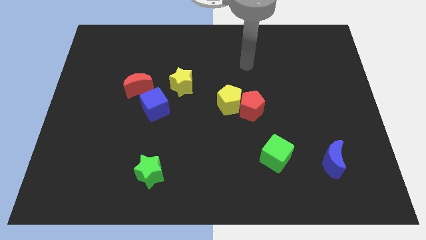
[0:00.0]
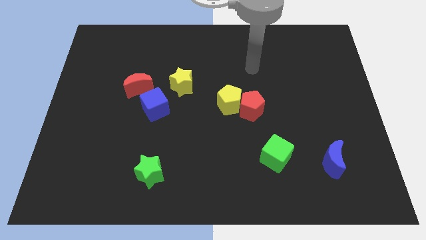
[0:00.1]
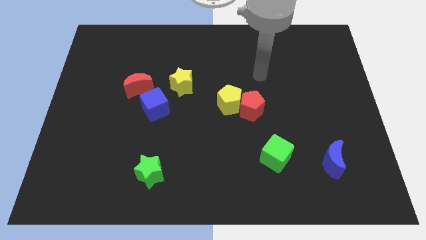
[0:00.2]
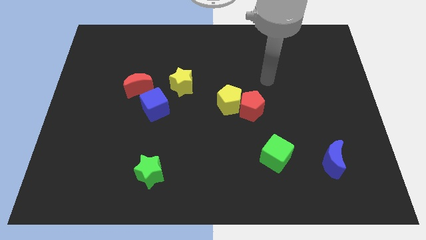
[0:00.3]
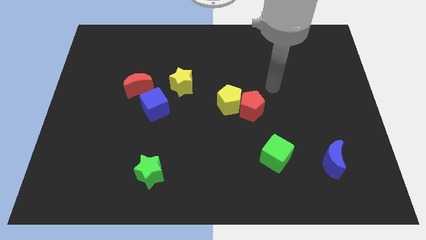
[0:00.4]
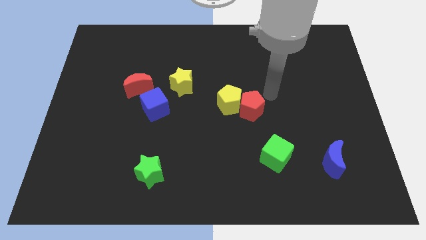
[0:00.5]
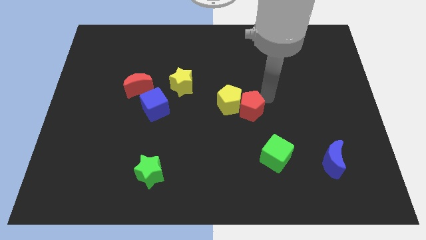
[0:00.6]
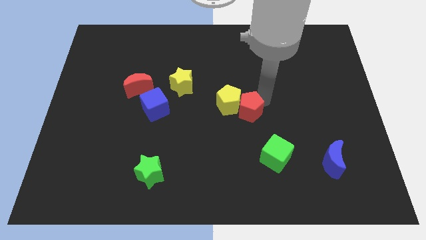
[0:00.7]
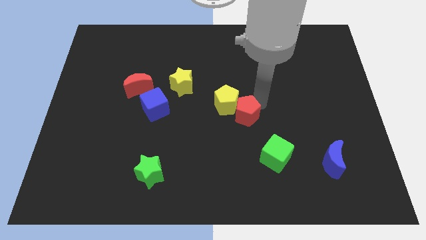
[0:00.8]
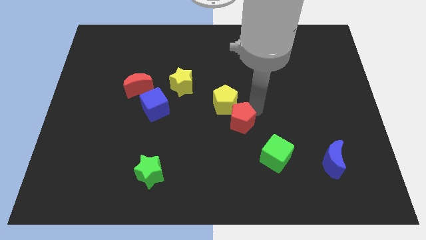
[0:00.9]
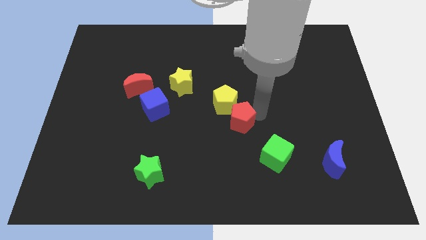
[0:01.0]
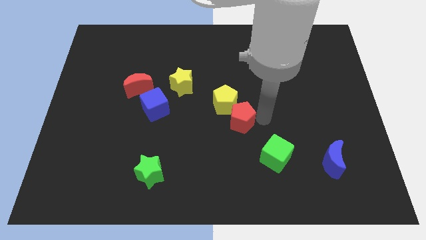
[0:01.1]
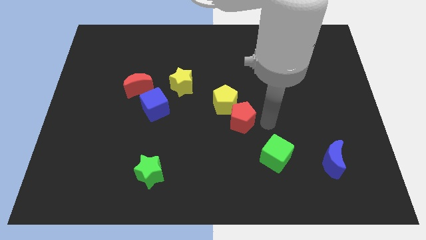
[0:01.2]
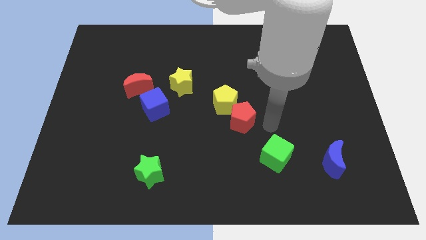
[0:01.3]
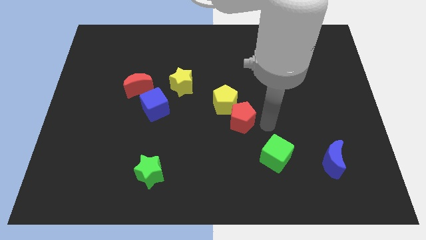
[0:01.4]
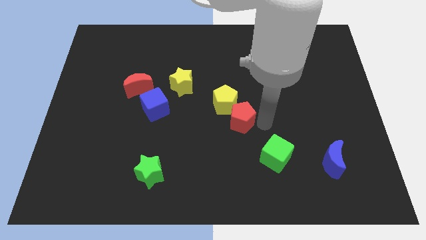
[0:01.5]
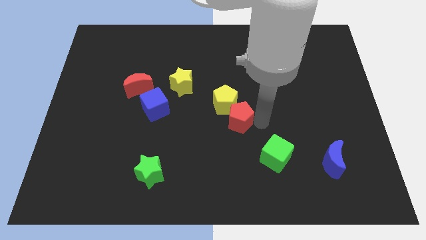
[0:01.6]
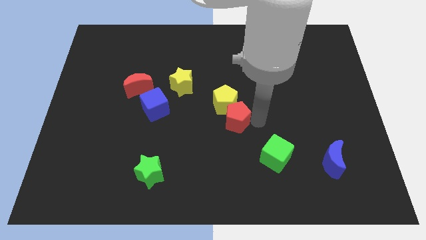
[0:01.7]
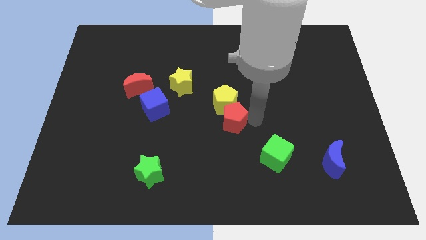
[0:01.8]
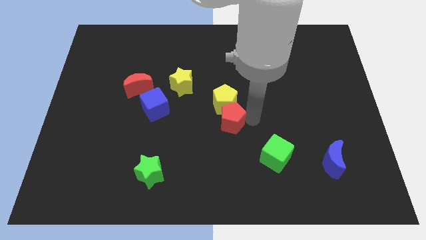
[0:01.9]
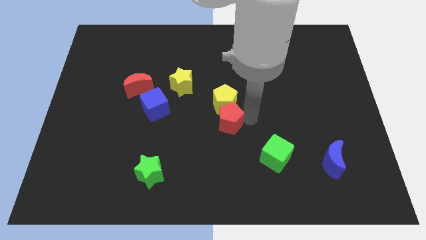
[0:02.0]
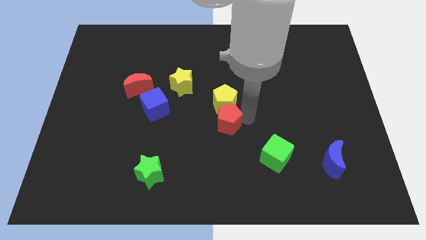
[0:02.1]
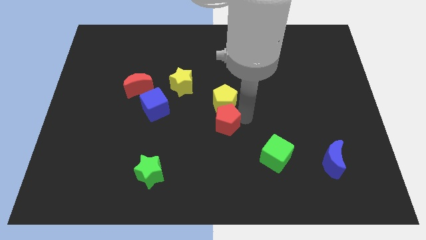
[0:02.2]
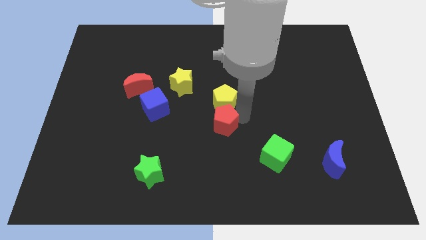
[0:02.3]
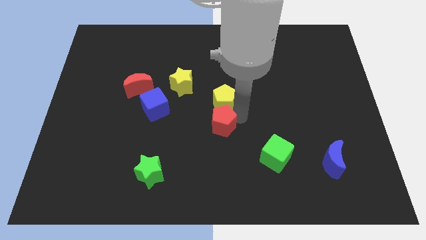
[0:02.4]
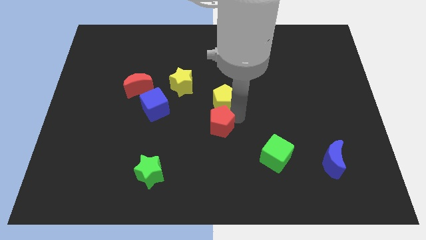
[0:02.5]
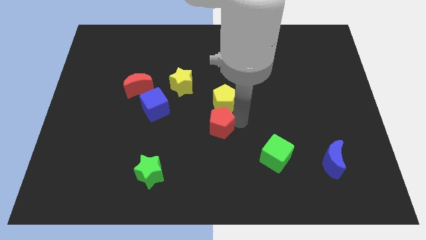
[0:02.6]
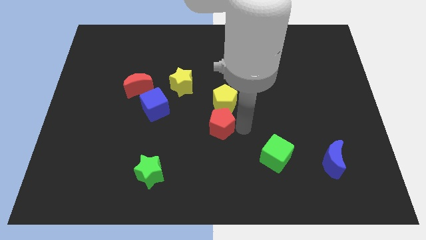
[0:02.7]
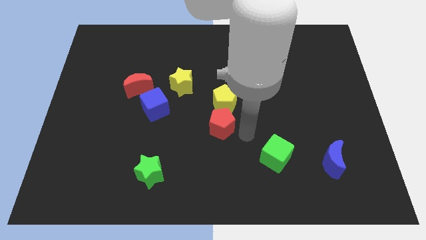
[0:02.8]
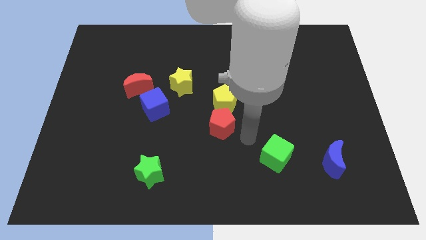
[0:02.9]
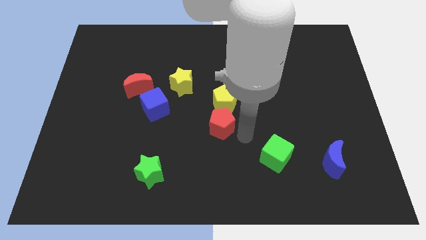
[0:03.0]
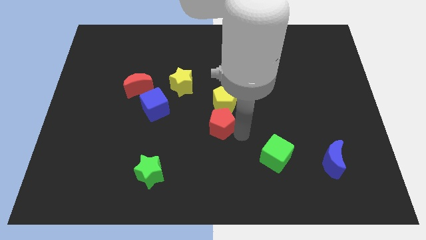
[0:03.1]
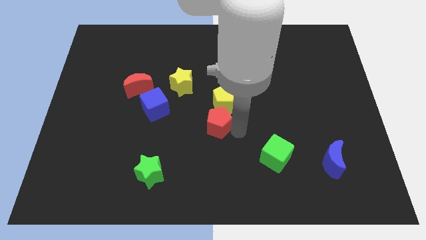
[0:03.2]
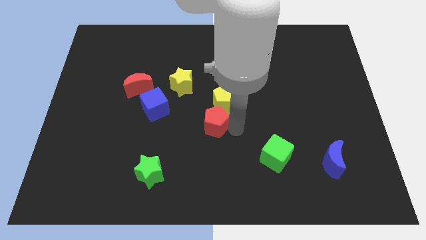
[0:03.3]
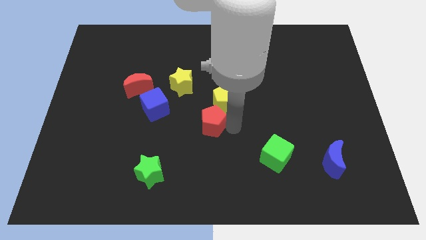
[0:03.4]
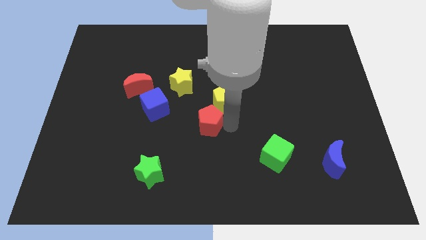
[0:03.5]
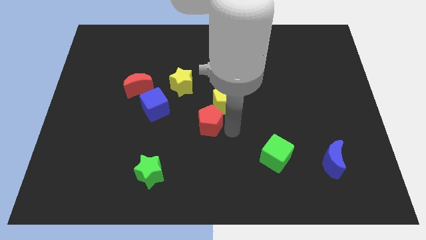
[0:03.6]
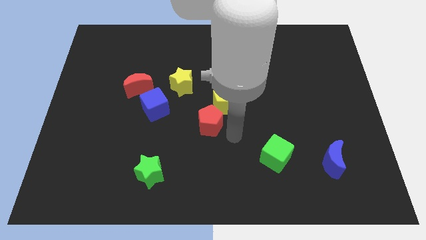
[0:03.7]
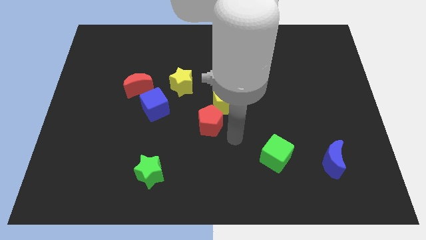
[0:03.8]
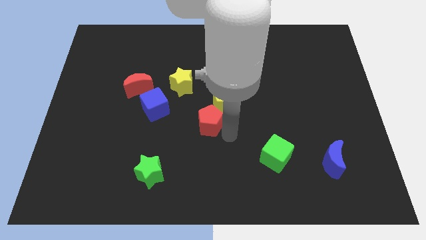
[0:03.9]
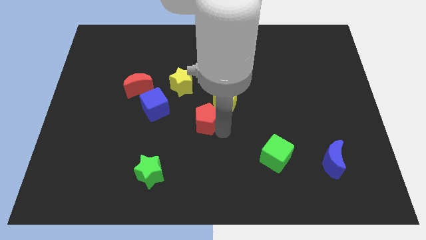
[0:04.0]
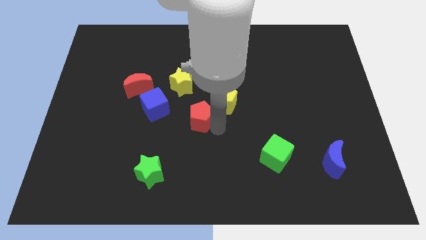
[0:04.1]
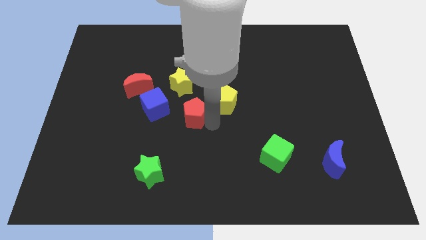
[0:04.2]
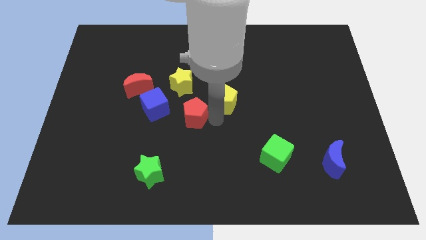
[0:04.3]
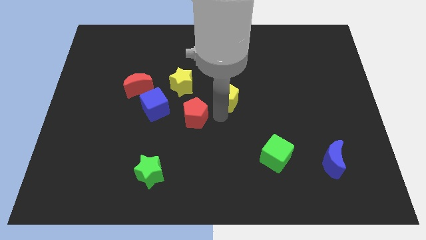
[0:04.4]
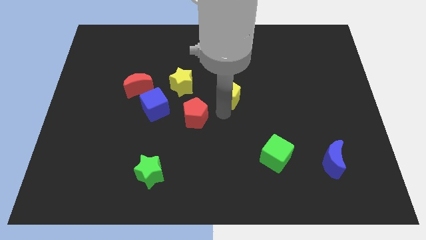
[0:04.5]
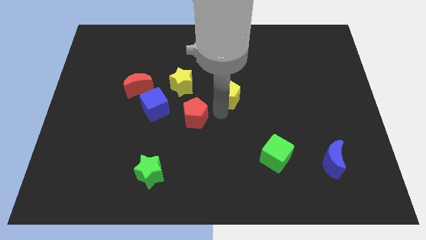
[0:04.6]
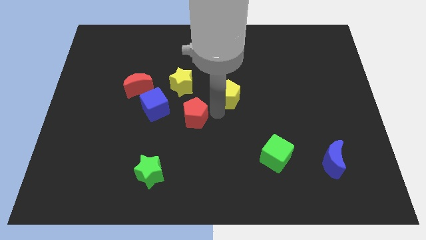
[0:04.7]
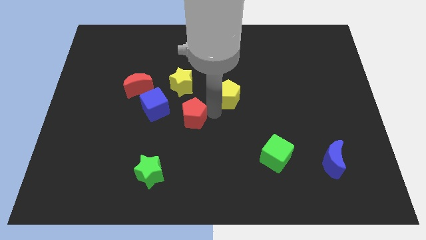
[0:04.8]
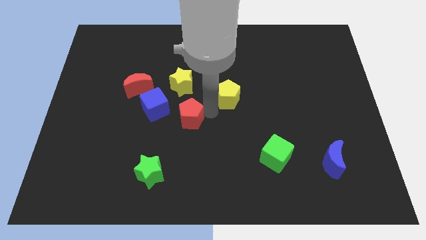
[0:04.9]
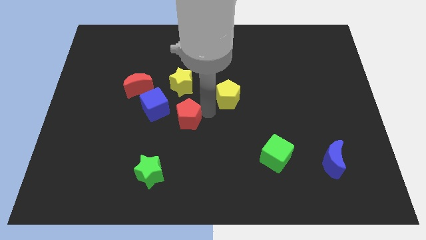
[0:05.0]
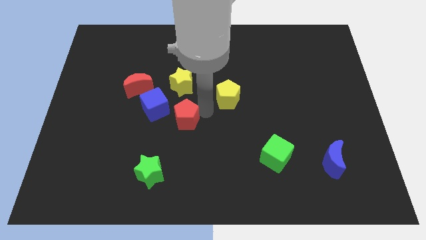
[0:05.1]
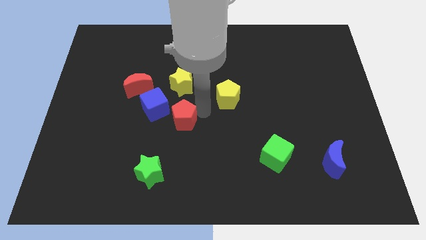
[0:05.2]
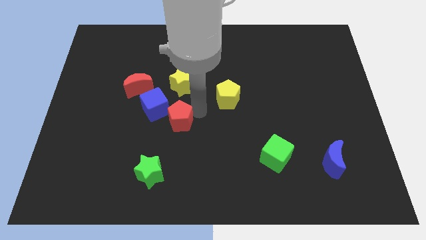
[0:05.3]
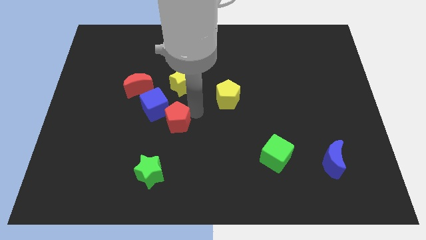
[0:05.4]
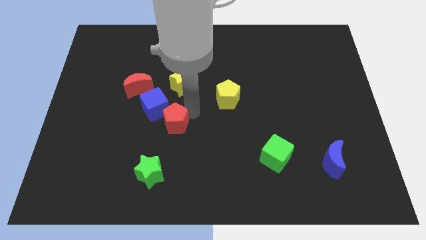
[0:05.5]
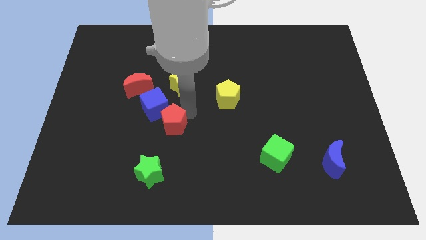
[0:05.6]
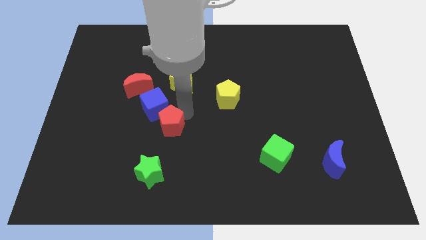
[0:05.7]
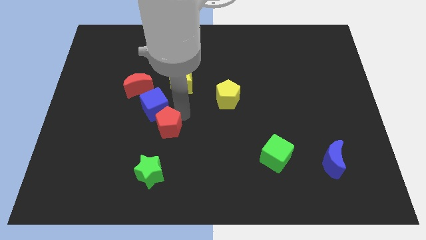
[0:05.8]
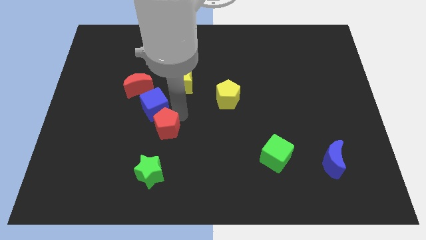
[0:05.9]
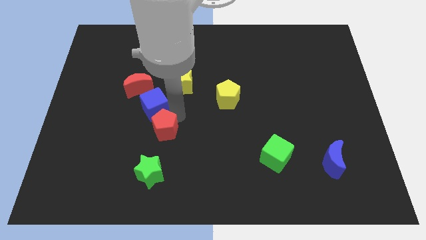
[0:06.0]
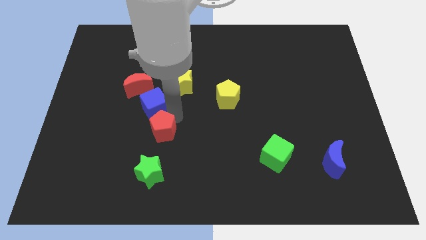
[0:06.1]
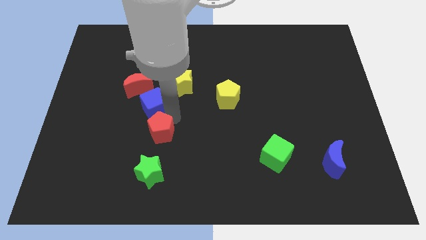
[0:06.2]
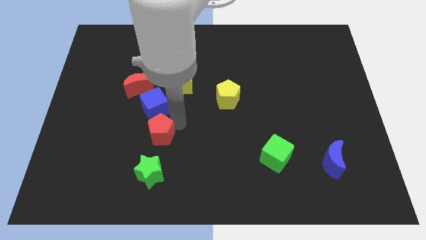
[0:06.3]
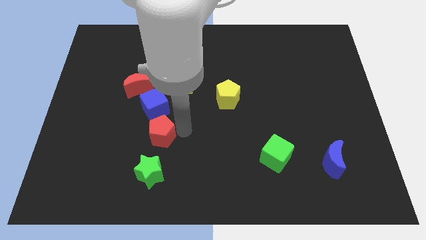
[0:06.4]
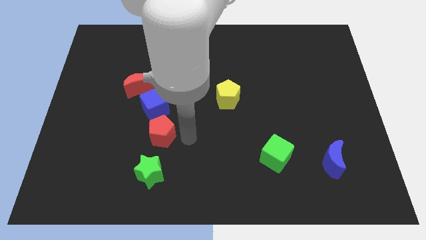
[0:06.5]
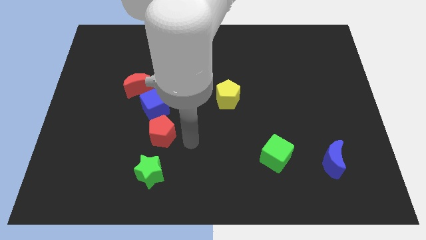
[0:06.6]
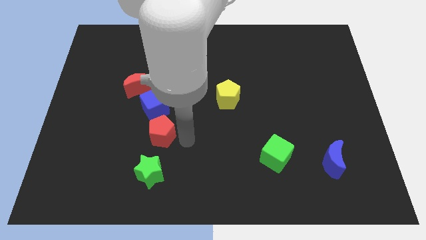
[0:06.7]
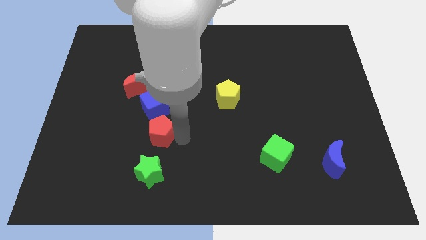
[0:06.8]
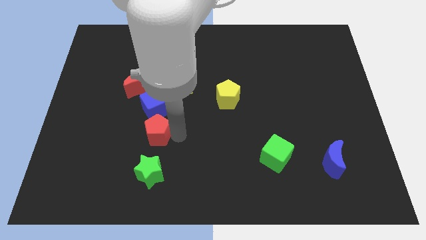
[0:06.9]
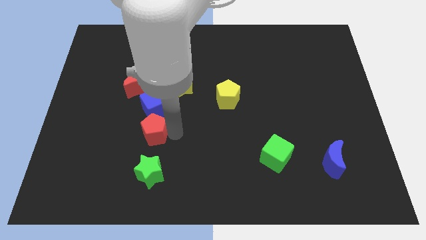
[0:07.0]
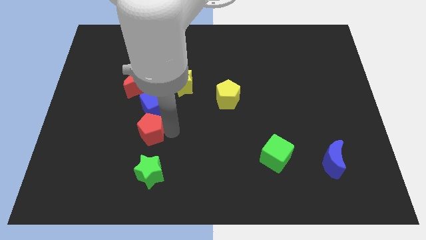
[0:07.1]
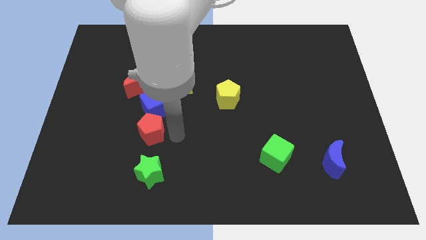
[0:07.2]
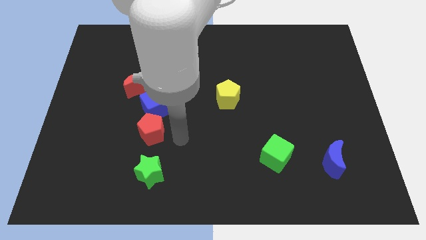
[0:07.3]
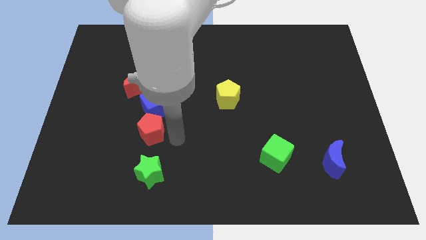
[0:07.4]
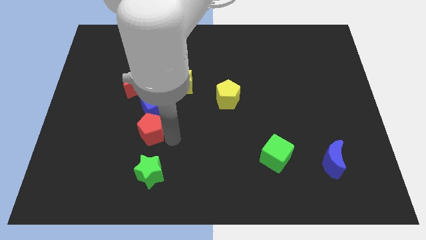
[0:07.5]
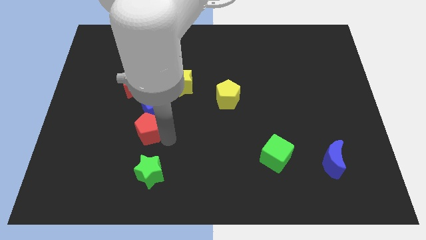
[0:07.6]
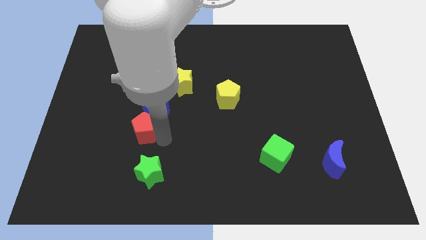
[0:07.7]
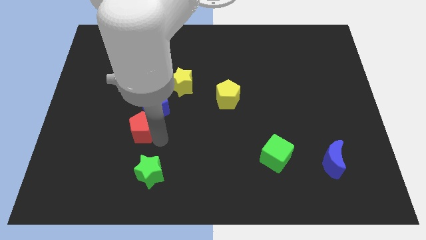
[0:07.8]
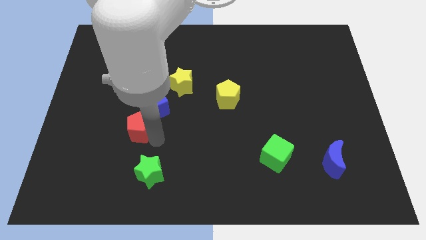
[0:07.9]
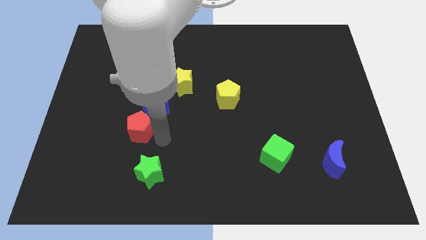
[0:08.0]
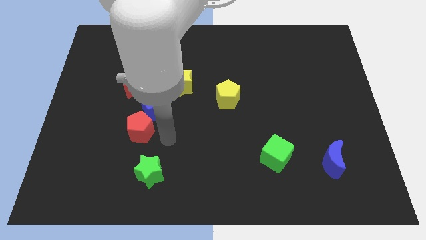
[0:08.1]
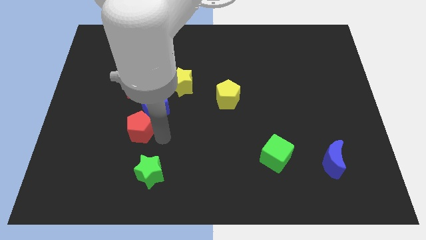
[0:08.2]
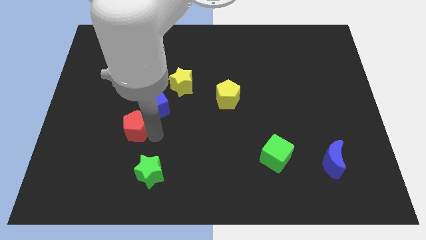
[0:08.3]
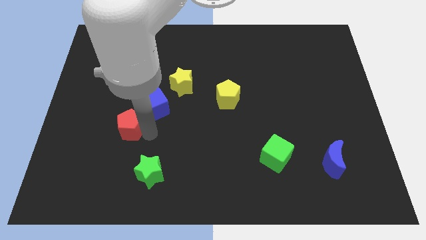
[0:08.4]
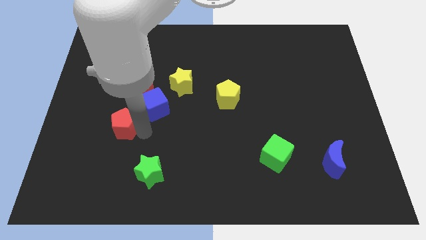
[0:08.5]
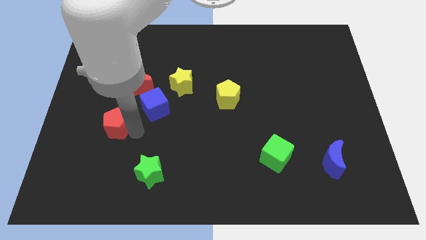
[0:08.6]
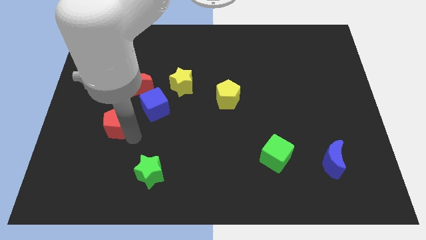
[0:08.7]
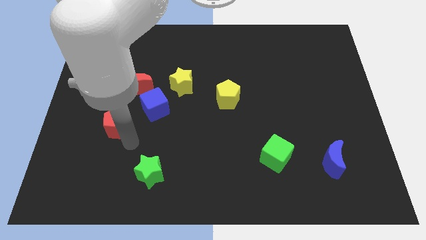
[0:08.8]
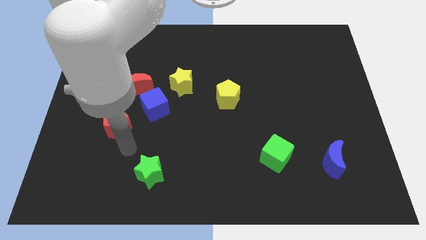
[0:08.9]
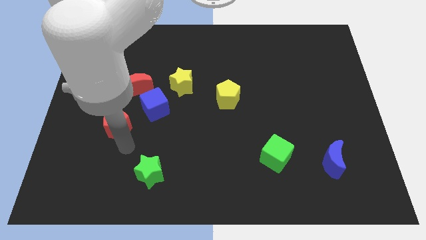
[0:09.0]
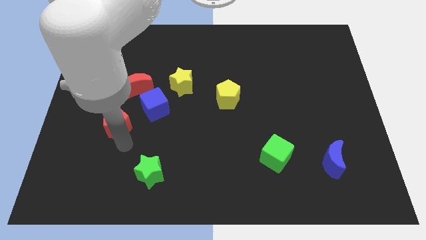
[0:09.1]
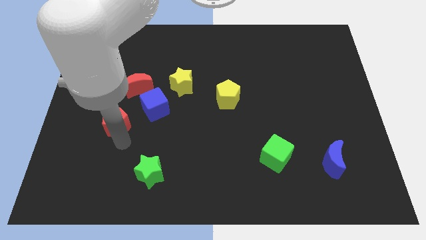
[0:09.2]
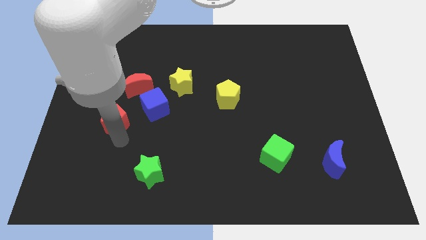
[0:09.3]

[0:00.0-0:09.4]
push the red pentagon to the left of the blue cube
